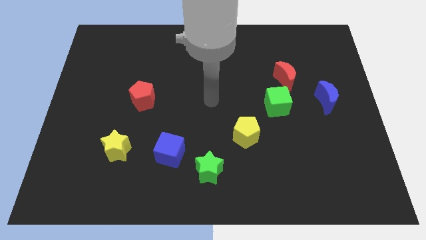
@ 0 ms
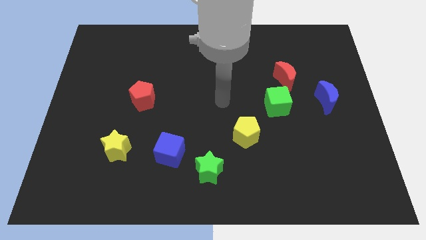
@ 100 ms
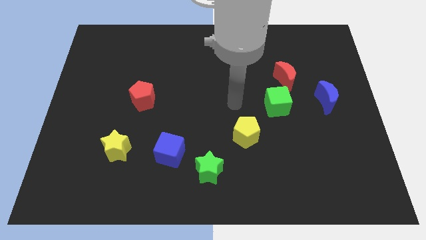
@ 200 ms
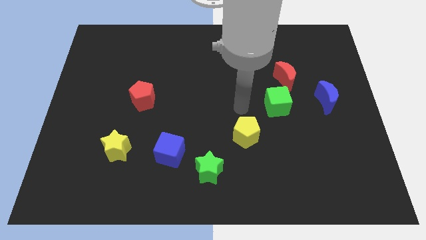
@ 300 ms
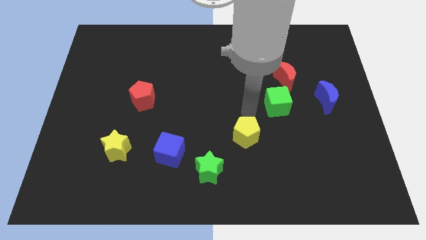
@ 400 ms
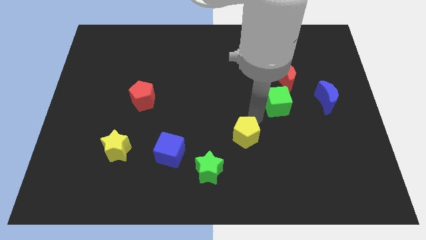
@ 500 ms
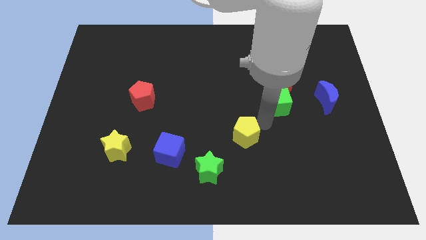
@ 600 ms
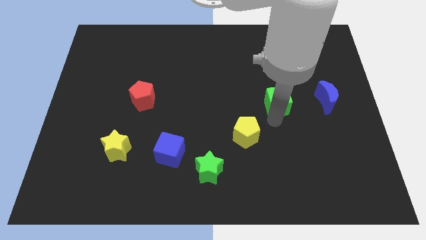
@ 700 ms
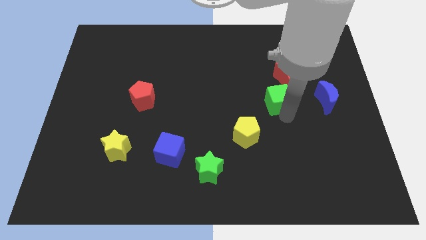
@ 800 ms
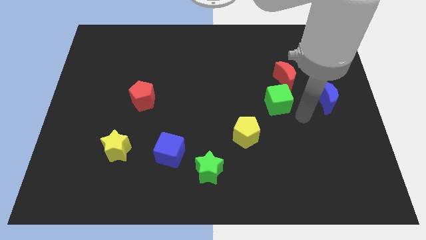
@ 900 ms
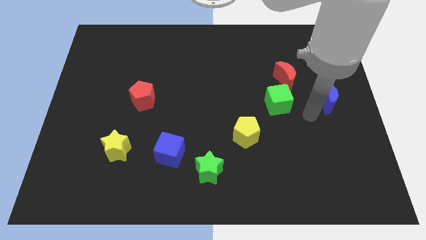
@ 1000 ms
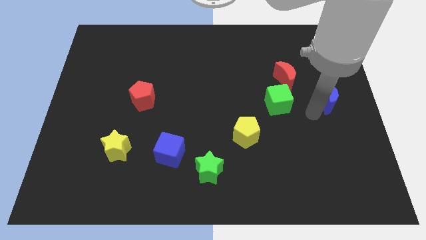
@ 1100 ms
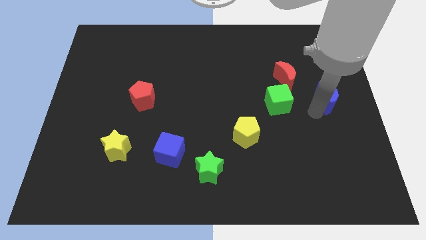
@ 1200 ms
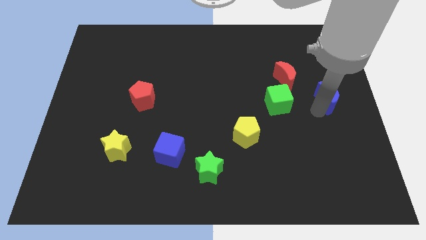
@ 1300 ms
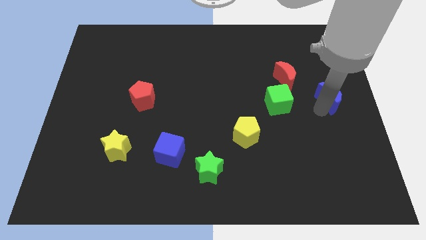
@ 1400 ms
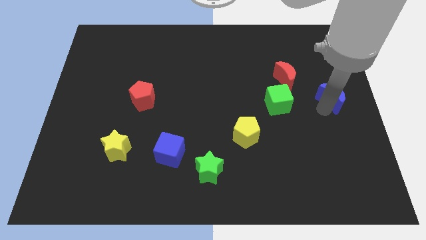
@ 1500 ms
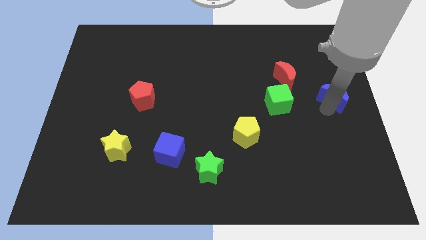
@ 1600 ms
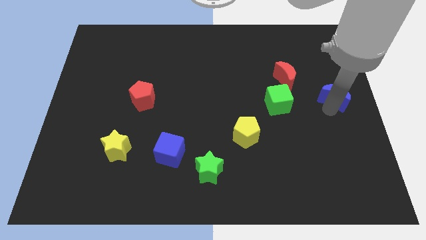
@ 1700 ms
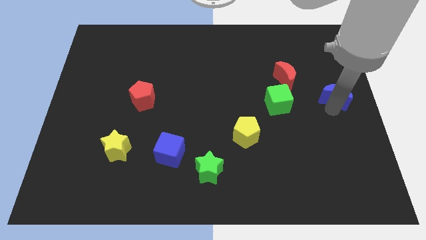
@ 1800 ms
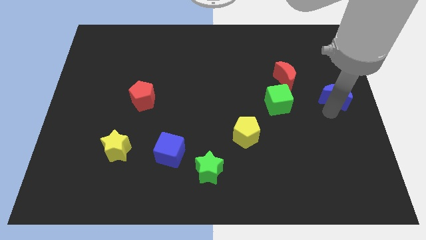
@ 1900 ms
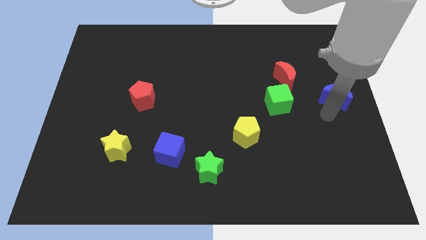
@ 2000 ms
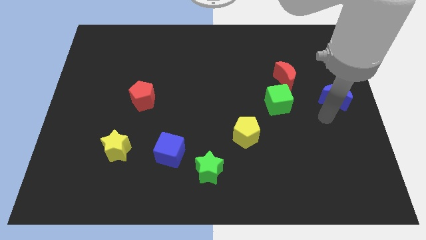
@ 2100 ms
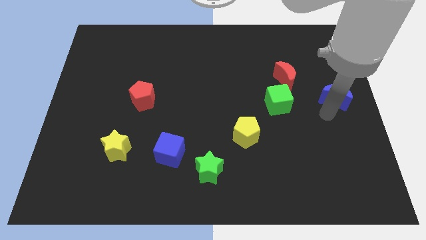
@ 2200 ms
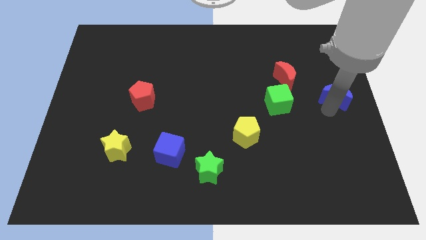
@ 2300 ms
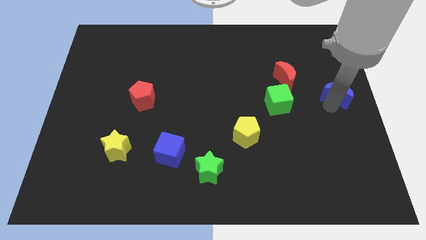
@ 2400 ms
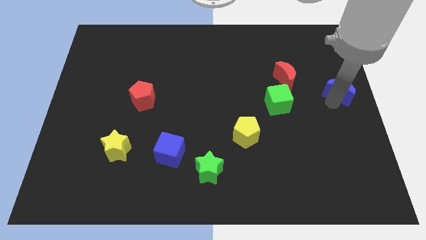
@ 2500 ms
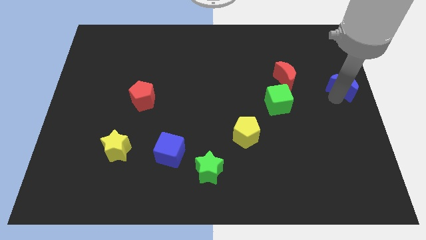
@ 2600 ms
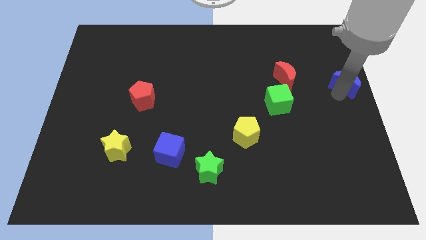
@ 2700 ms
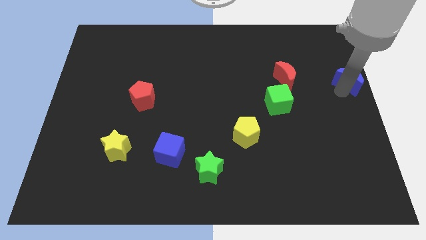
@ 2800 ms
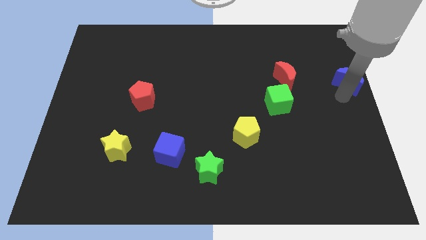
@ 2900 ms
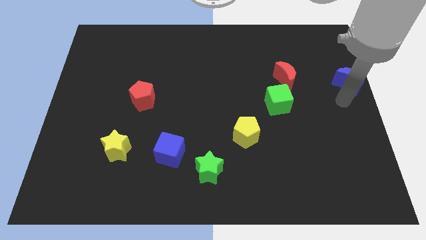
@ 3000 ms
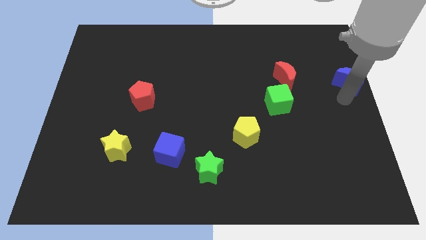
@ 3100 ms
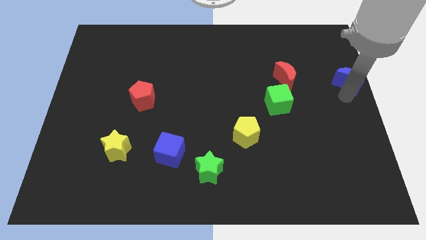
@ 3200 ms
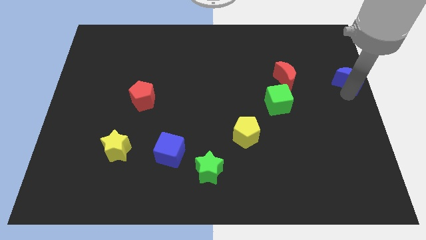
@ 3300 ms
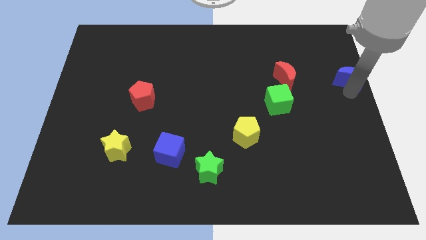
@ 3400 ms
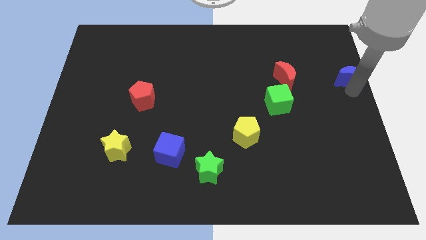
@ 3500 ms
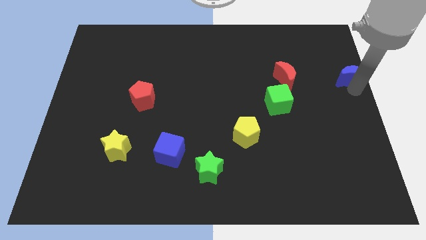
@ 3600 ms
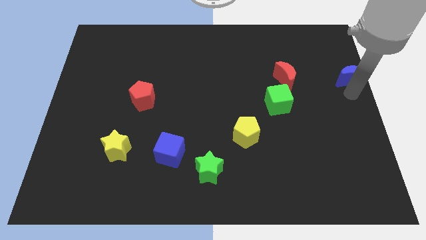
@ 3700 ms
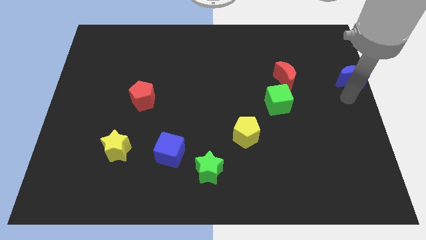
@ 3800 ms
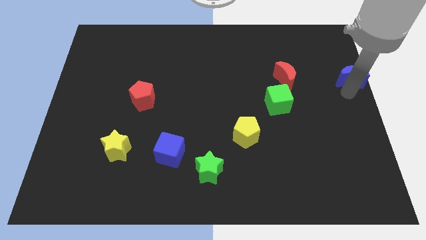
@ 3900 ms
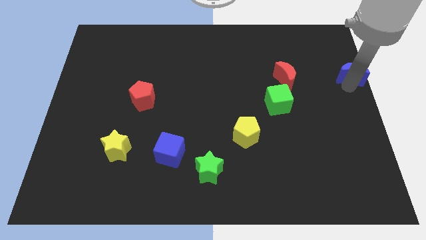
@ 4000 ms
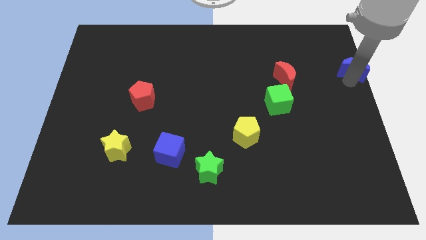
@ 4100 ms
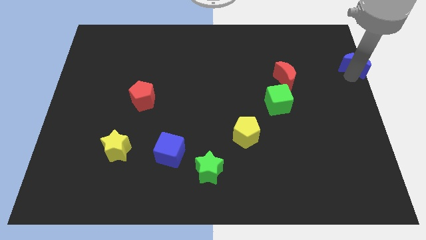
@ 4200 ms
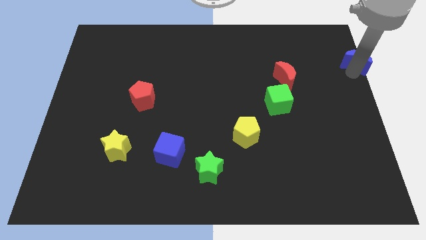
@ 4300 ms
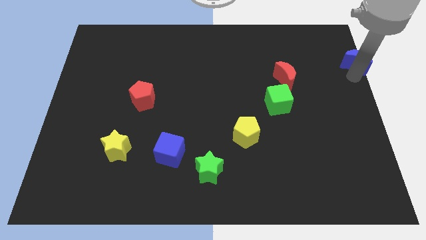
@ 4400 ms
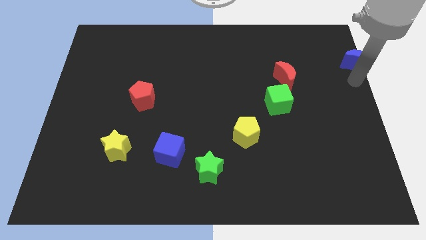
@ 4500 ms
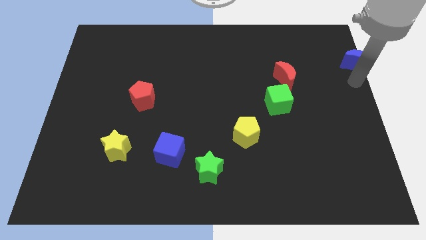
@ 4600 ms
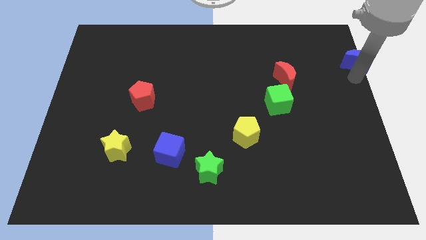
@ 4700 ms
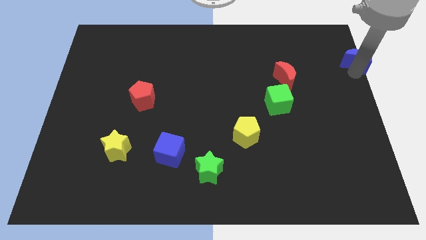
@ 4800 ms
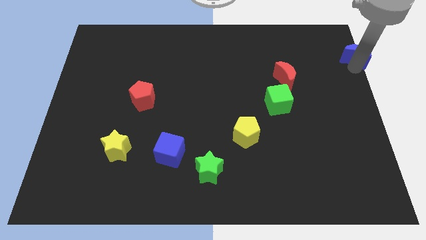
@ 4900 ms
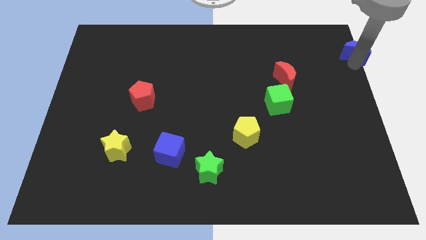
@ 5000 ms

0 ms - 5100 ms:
put the blue moon to the top right corner
